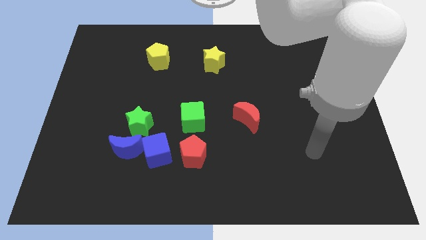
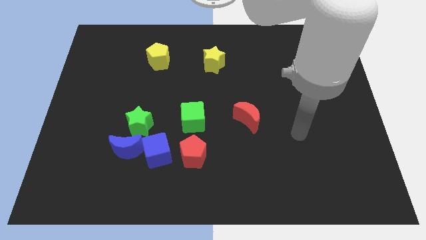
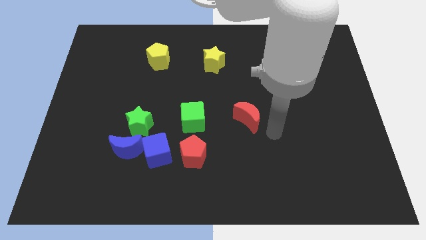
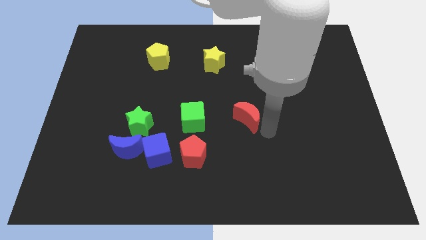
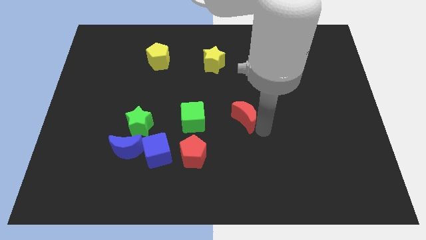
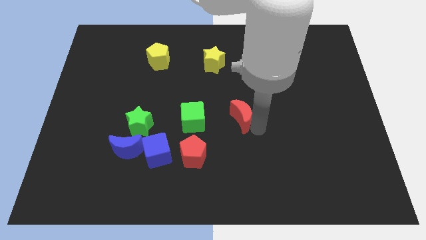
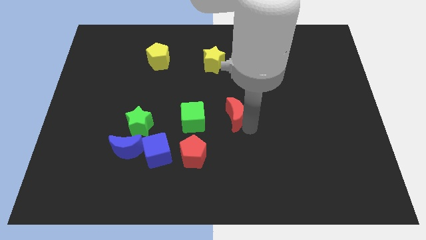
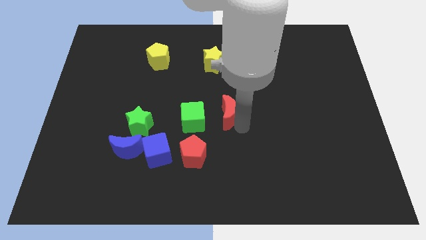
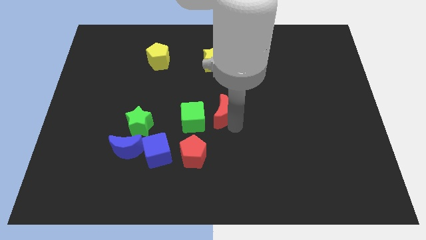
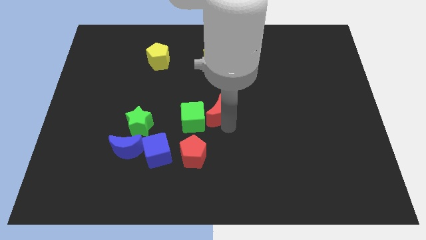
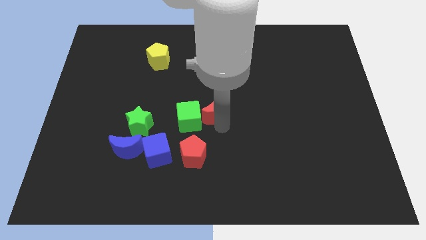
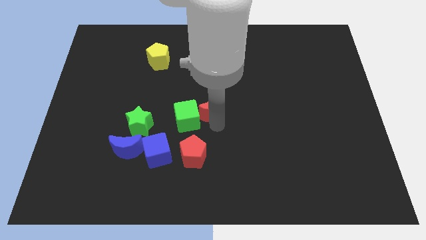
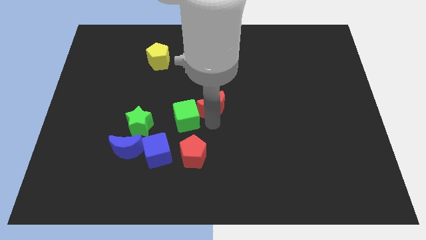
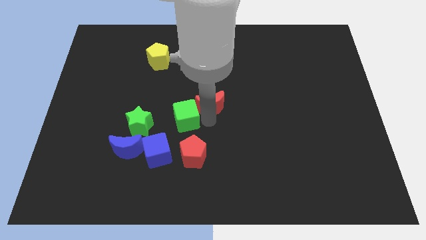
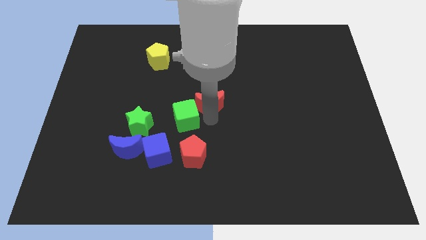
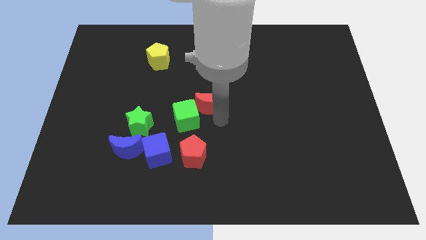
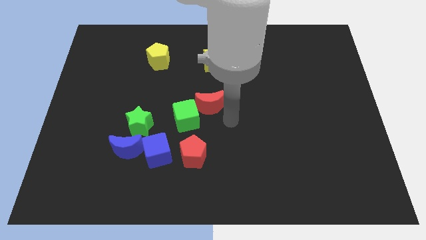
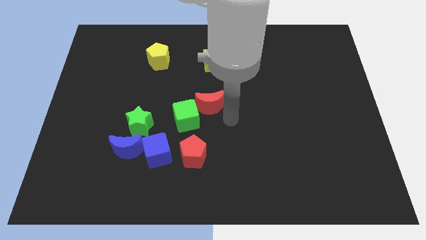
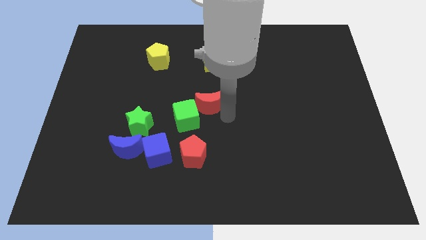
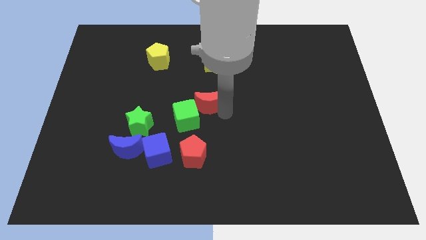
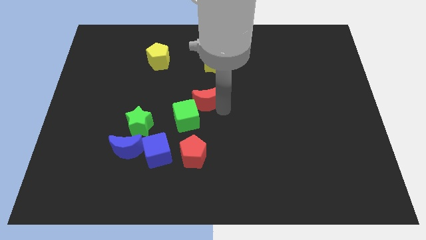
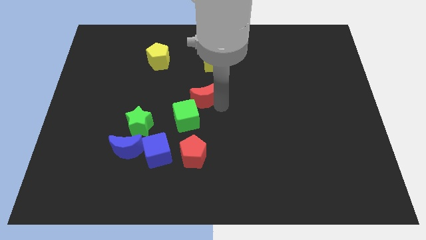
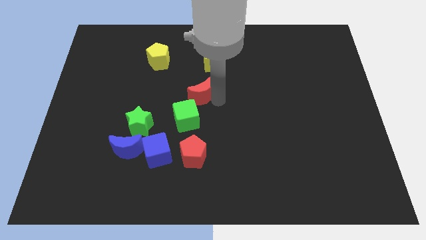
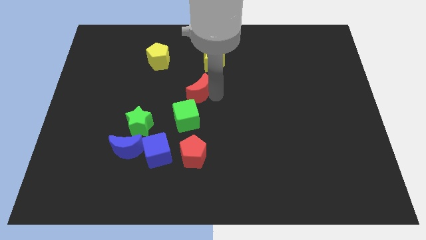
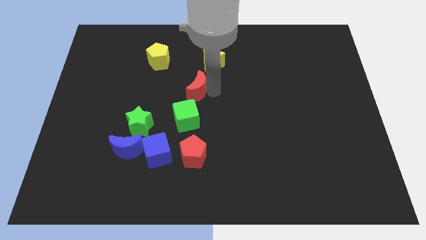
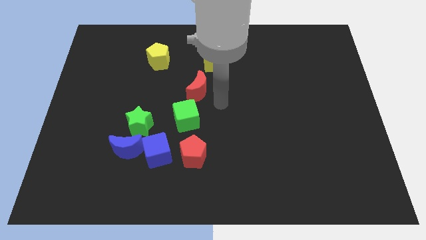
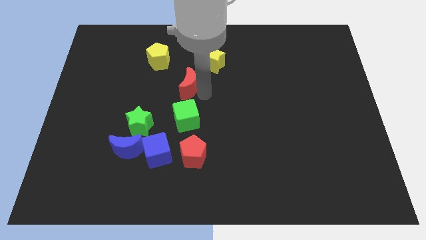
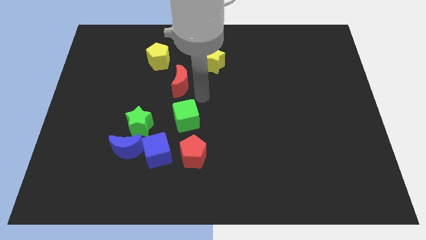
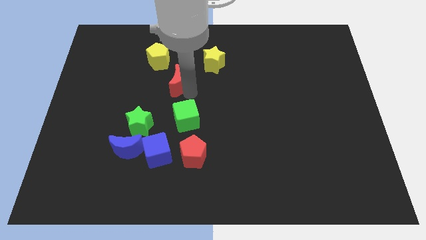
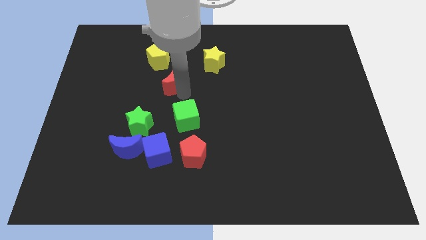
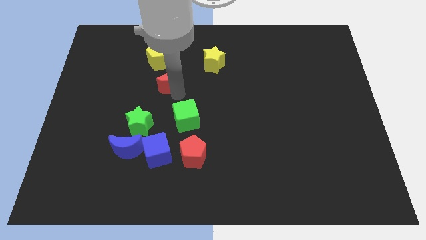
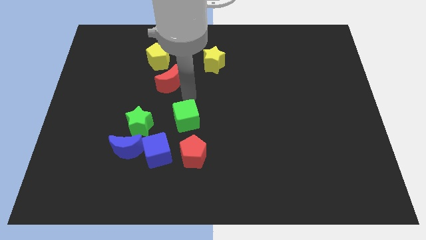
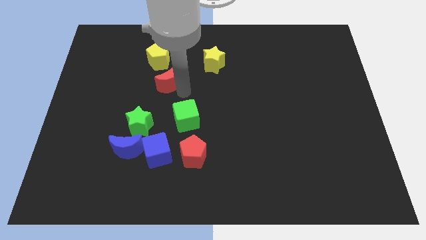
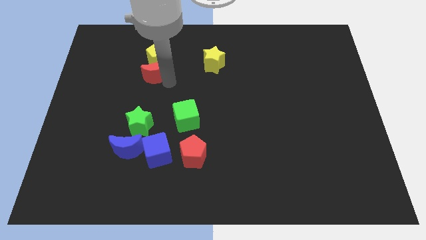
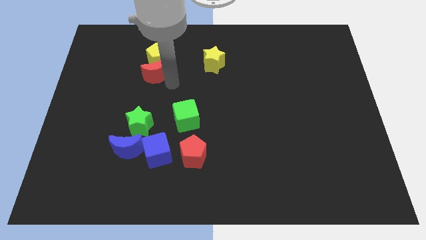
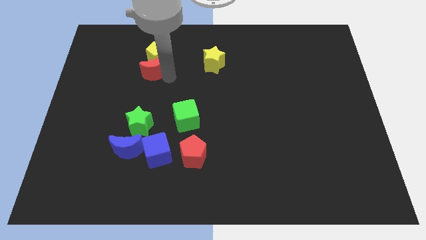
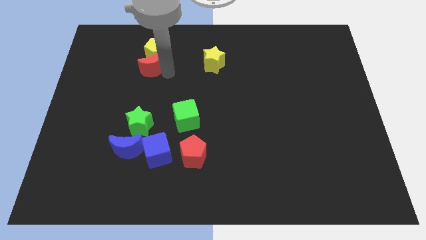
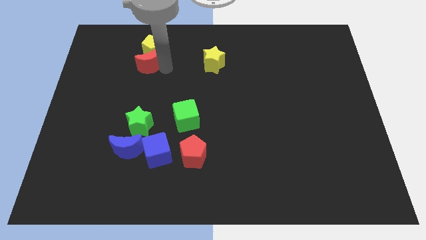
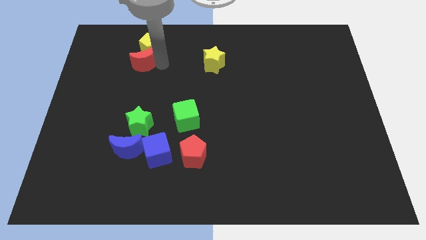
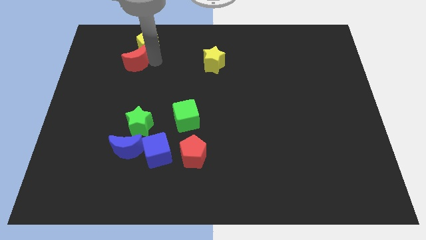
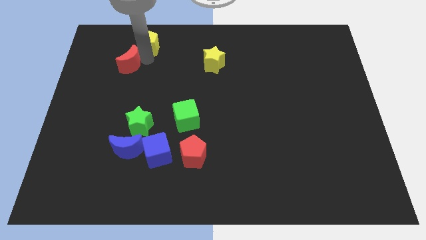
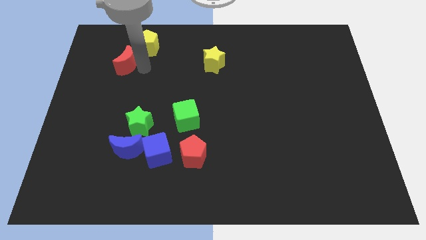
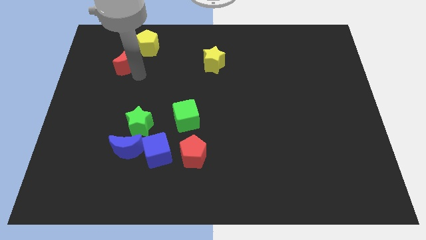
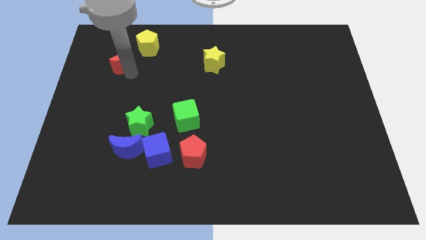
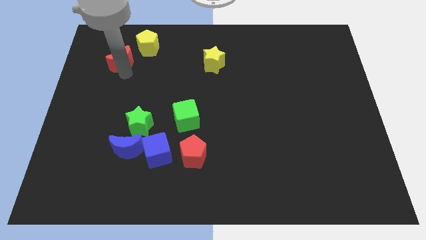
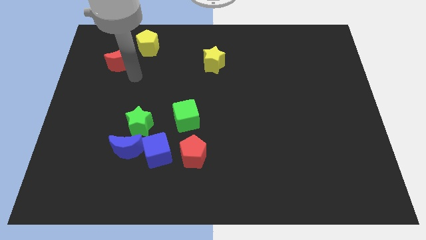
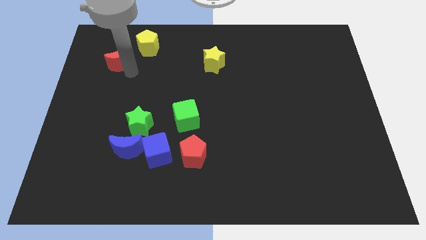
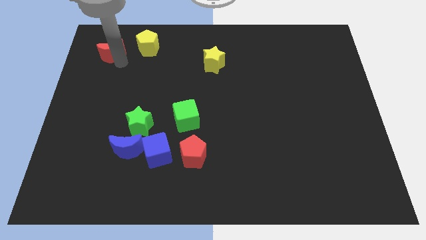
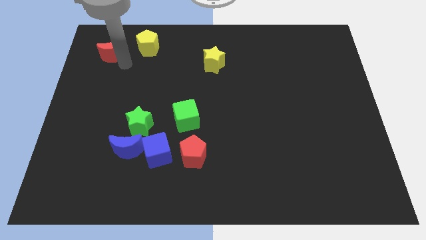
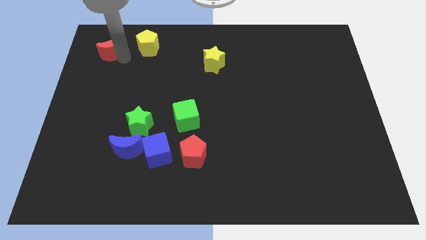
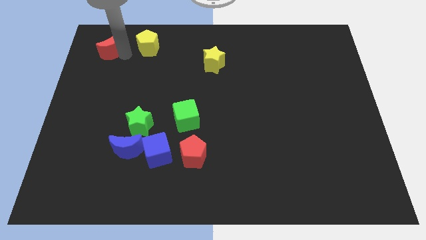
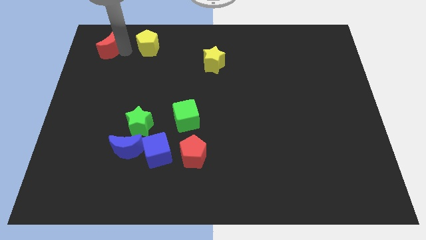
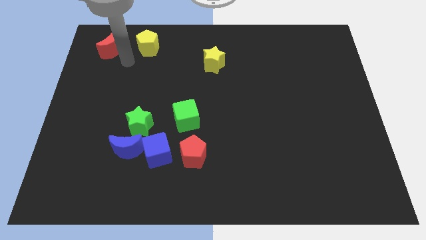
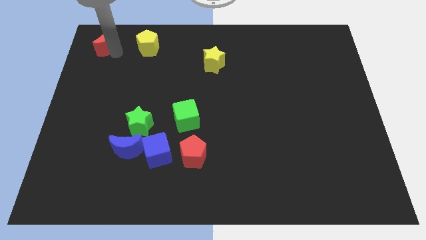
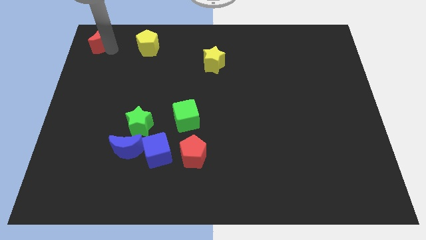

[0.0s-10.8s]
push the red moon to the upper left corner

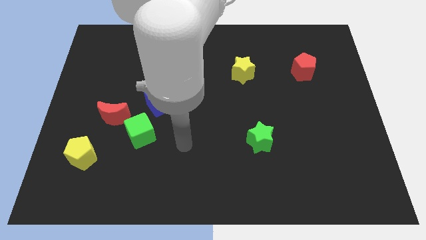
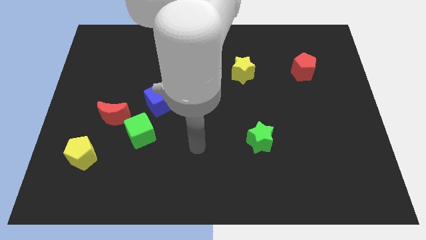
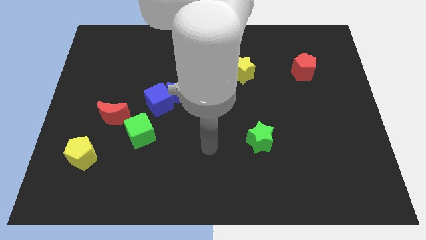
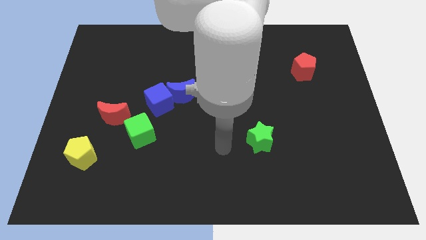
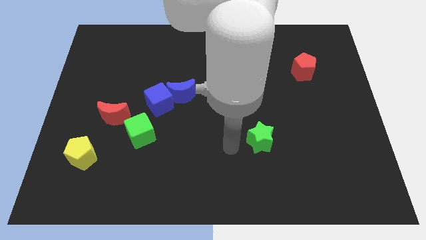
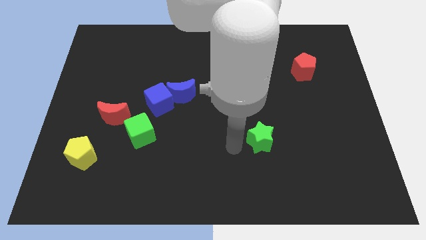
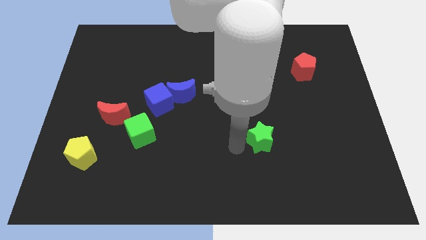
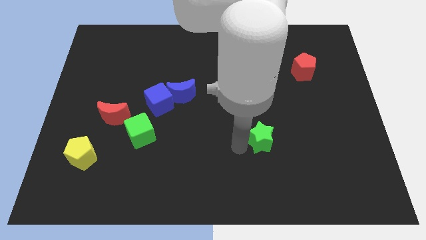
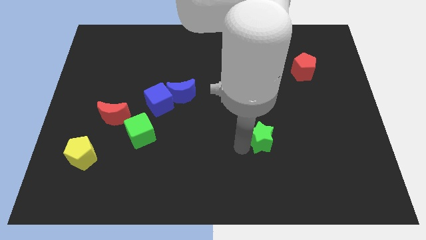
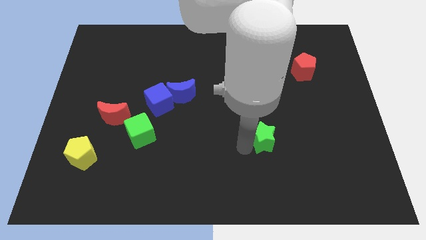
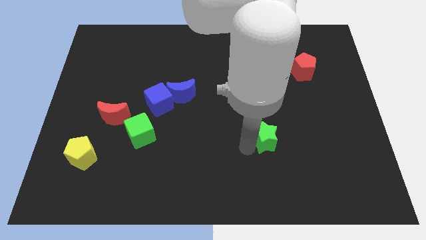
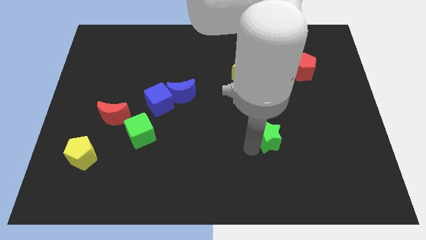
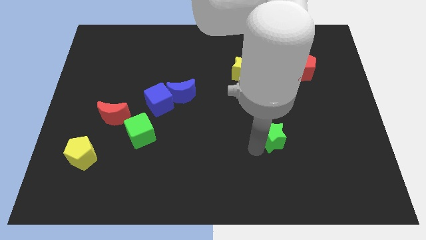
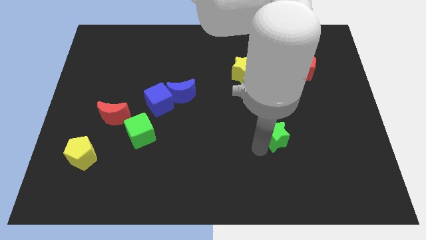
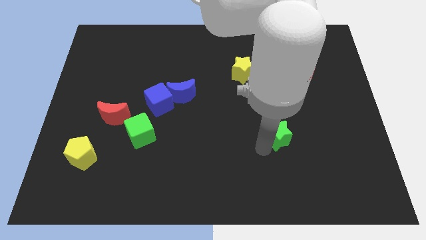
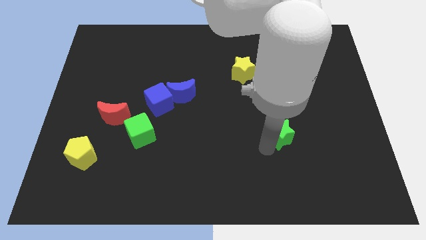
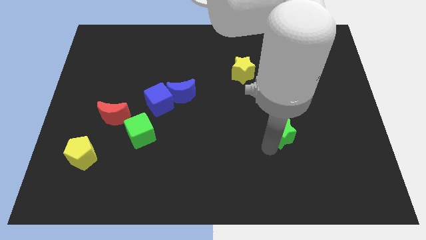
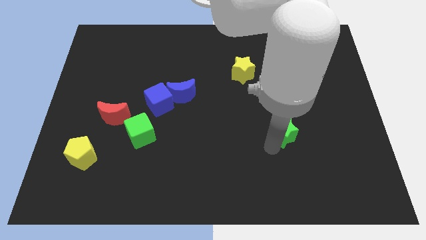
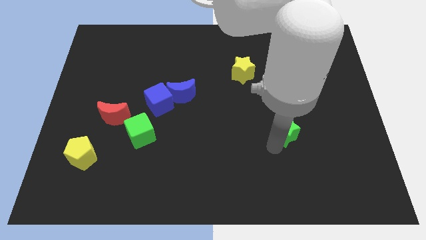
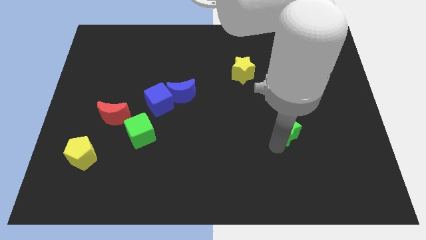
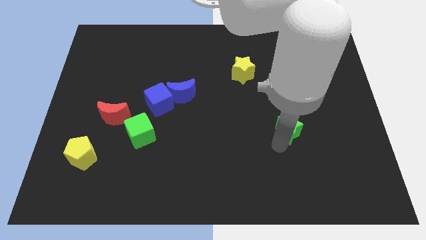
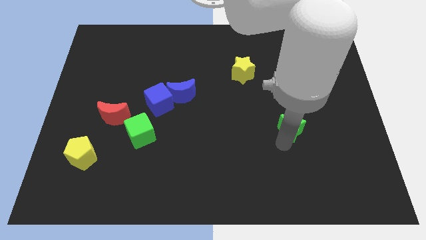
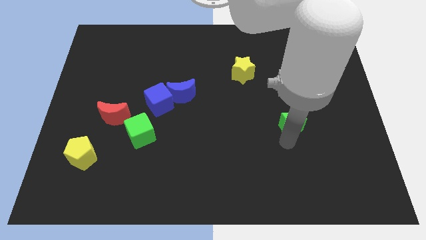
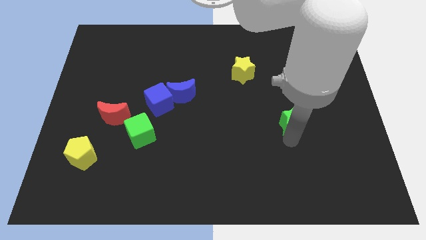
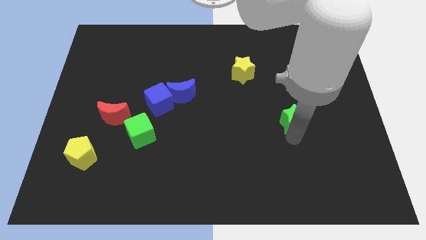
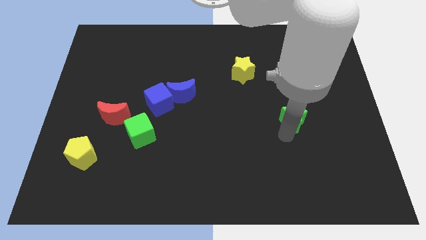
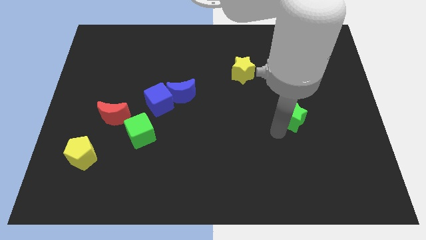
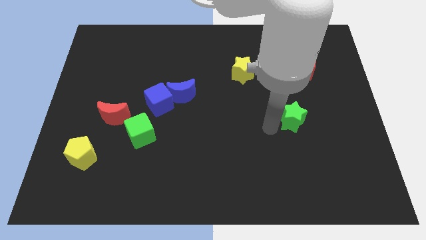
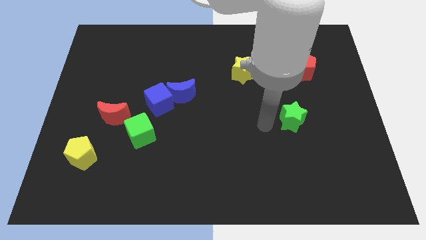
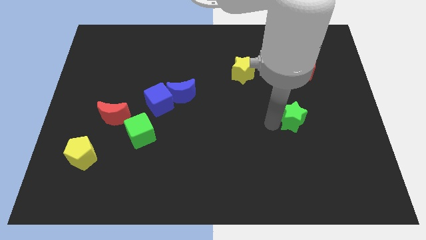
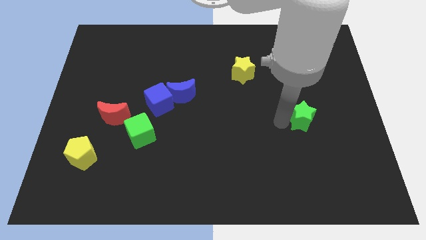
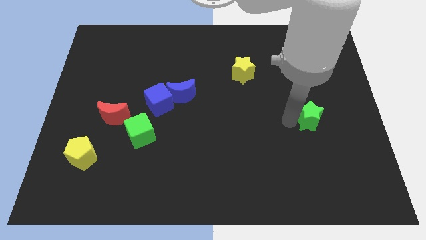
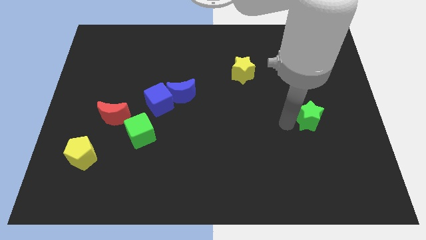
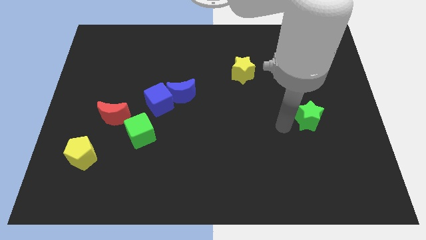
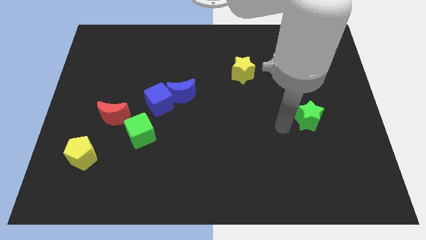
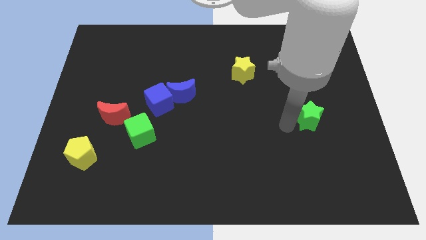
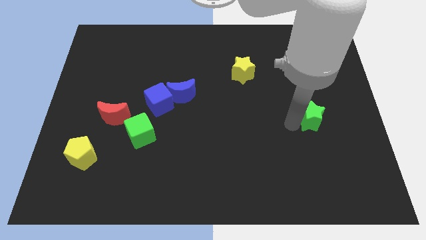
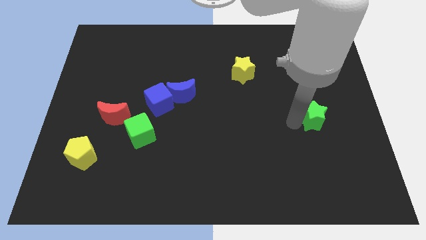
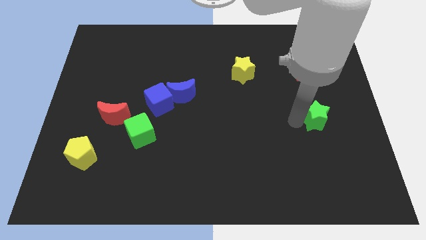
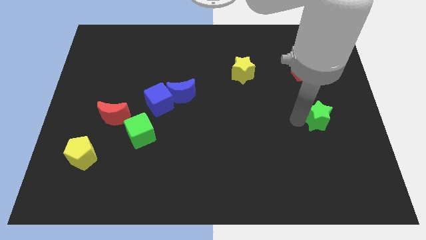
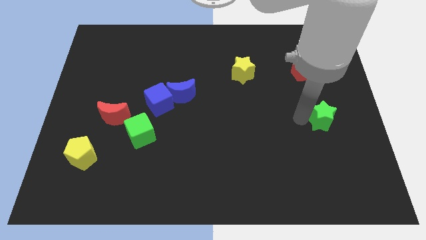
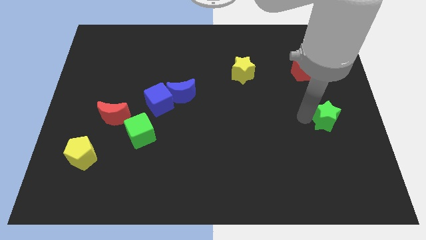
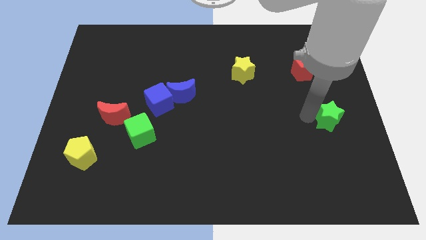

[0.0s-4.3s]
put the green star to the center right
